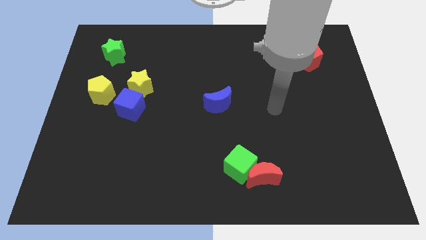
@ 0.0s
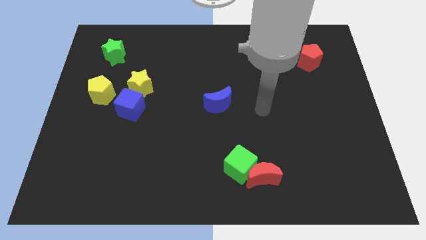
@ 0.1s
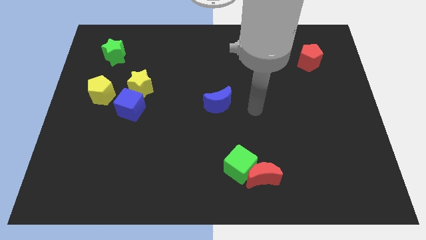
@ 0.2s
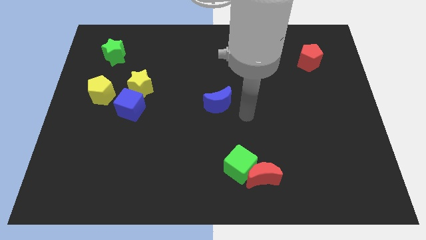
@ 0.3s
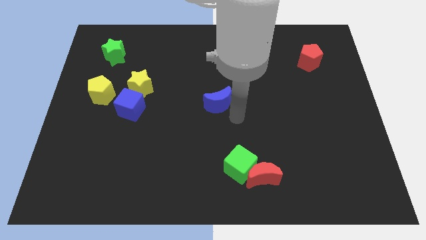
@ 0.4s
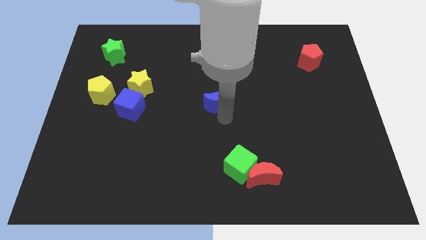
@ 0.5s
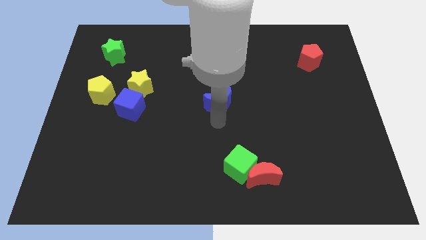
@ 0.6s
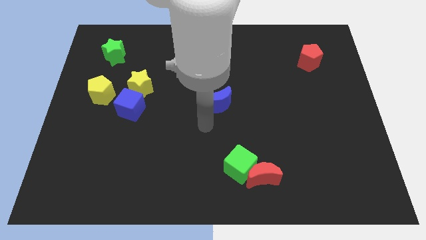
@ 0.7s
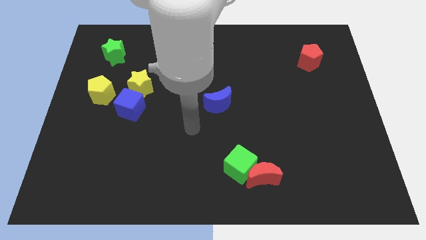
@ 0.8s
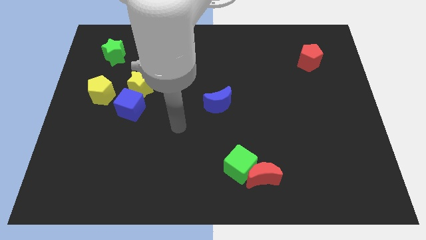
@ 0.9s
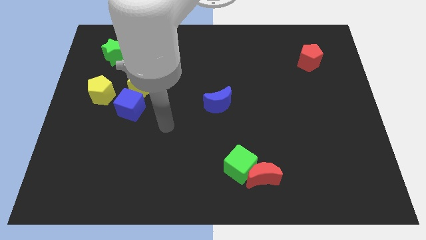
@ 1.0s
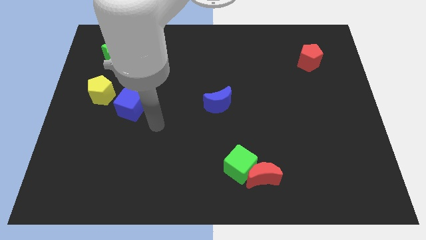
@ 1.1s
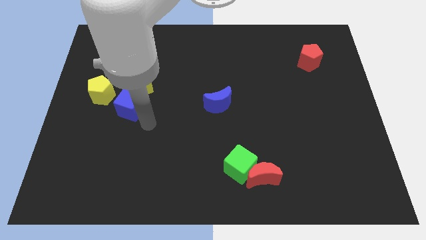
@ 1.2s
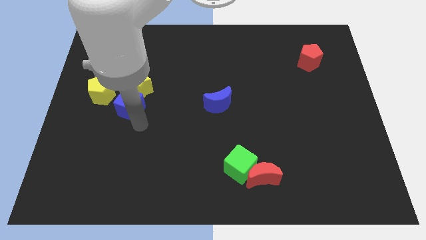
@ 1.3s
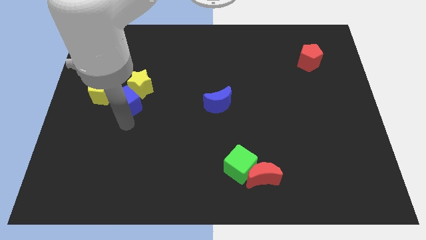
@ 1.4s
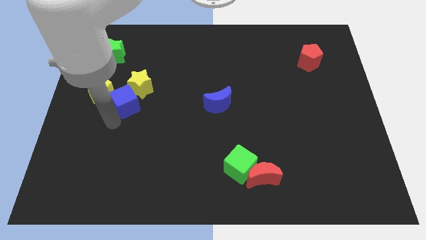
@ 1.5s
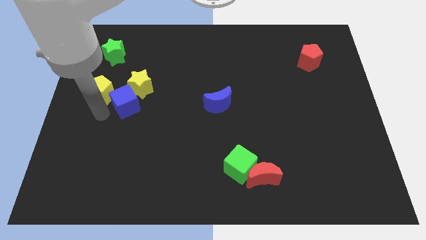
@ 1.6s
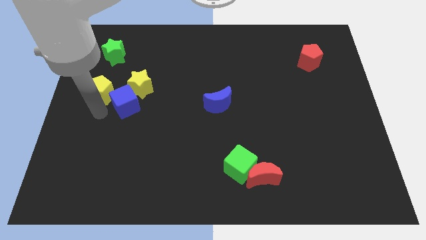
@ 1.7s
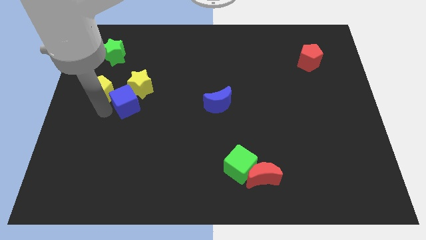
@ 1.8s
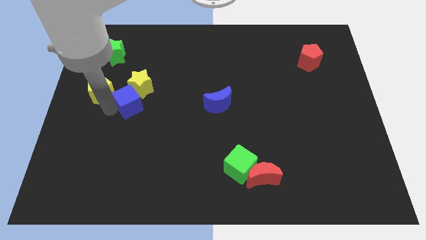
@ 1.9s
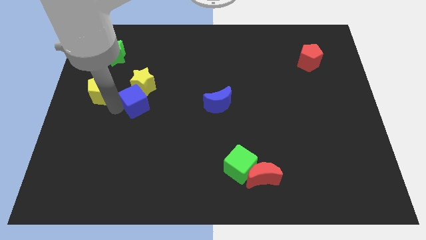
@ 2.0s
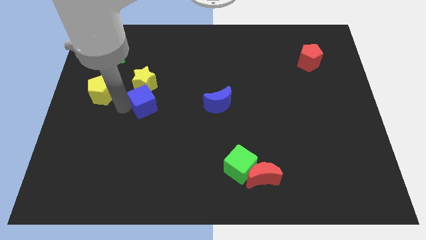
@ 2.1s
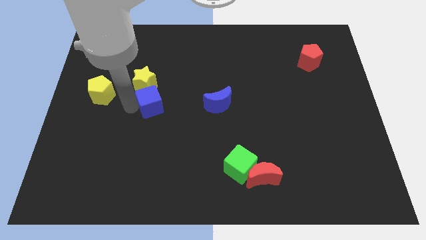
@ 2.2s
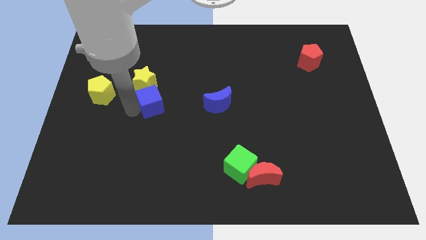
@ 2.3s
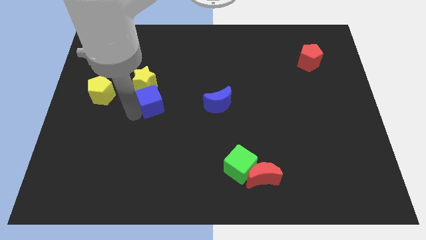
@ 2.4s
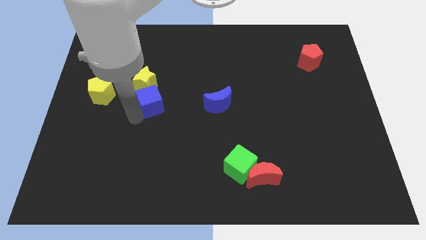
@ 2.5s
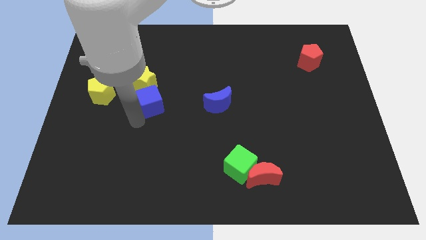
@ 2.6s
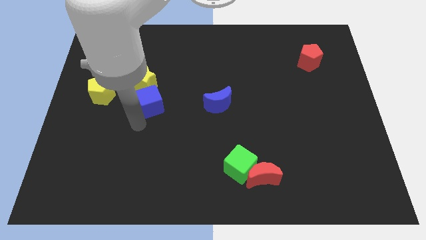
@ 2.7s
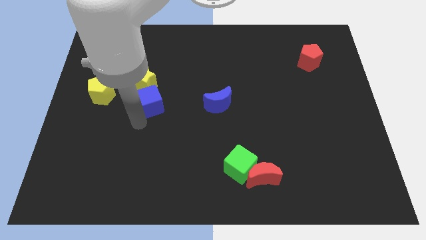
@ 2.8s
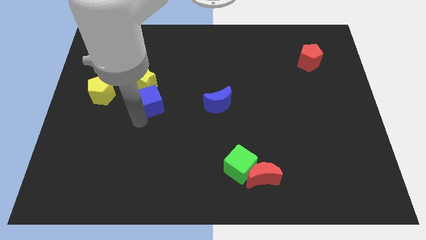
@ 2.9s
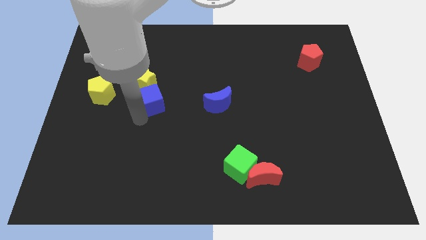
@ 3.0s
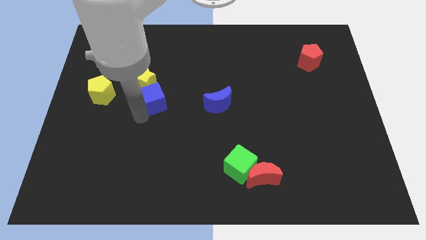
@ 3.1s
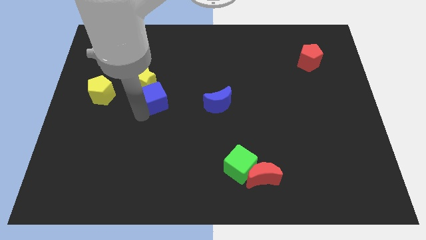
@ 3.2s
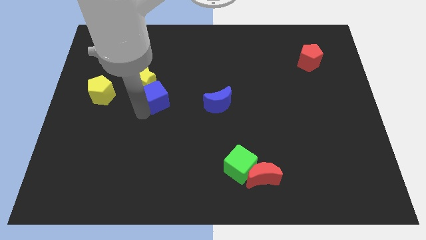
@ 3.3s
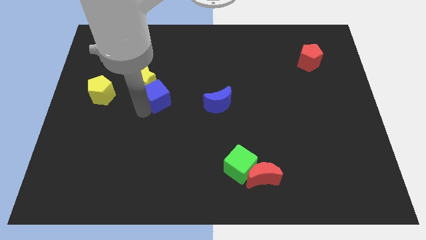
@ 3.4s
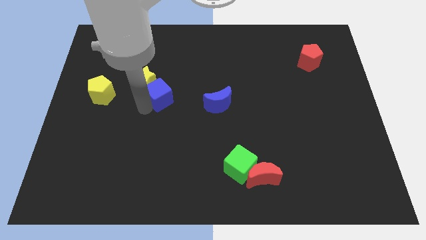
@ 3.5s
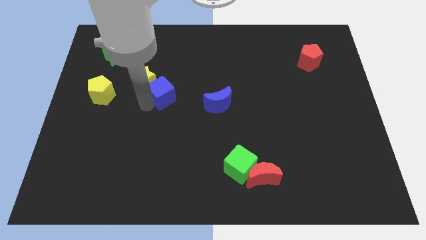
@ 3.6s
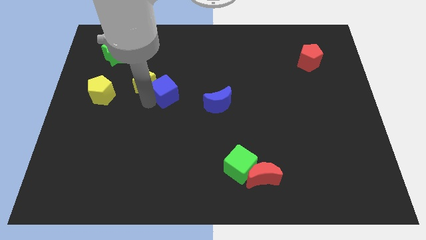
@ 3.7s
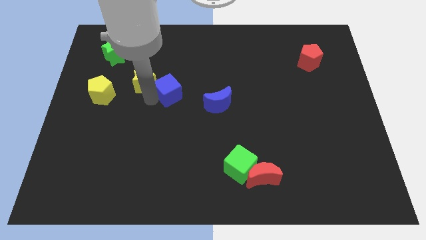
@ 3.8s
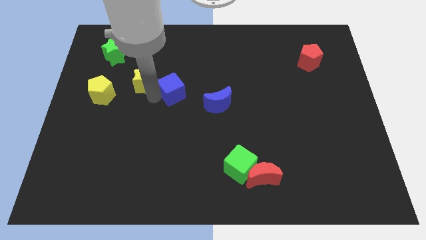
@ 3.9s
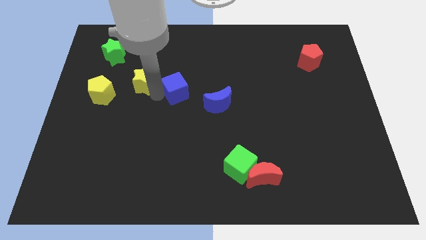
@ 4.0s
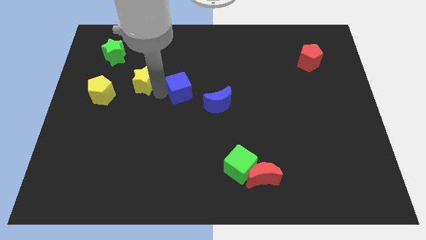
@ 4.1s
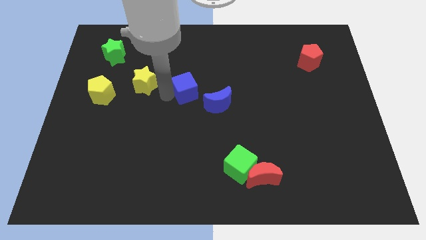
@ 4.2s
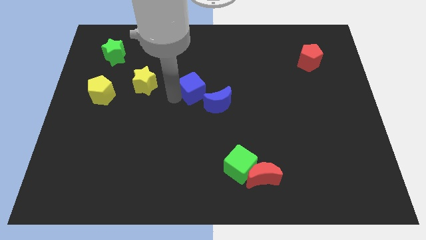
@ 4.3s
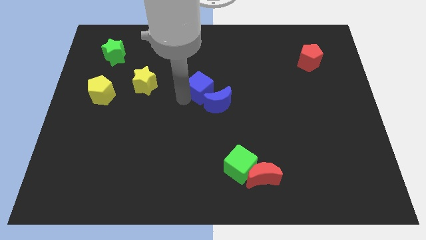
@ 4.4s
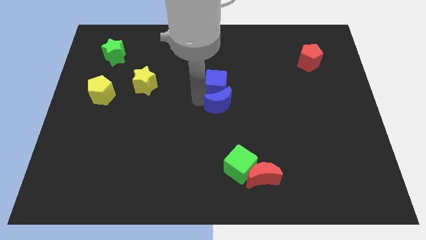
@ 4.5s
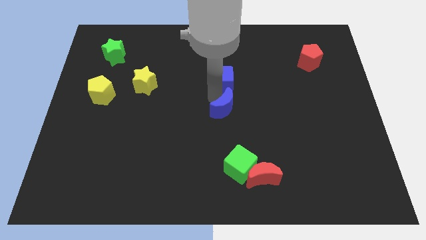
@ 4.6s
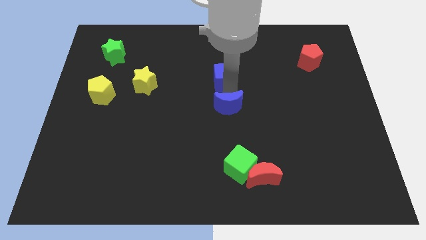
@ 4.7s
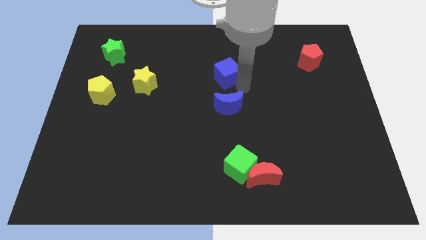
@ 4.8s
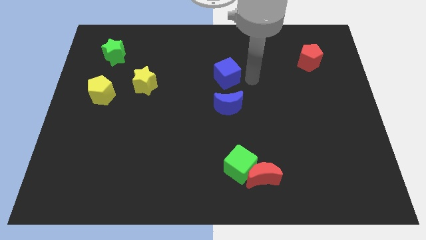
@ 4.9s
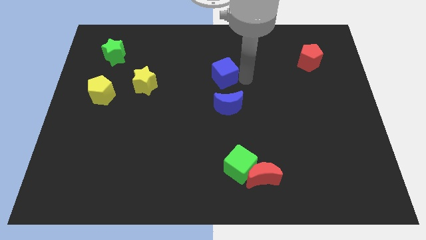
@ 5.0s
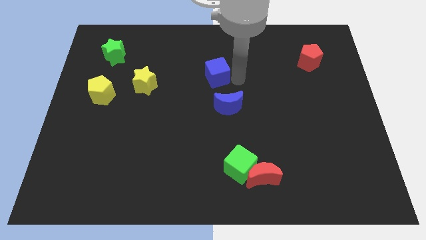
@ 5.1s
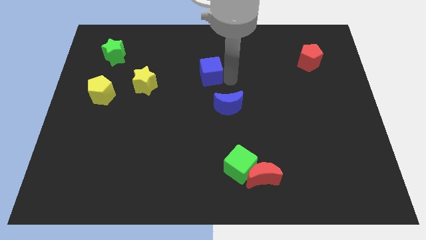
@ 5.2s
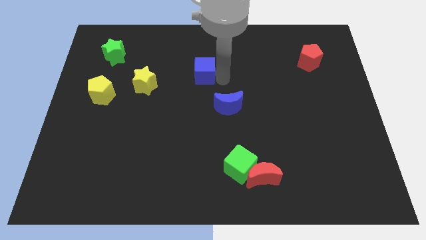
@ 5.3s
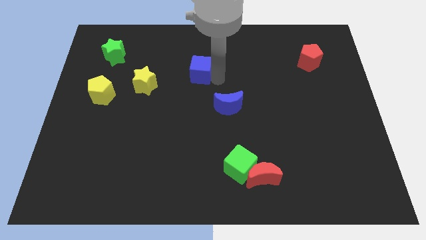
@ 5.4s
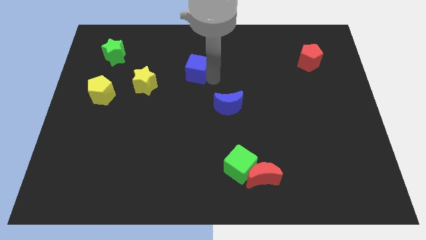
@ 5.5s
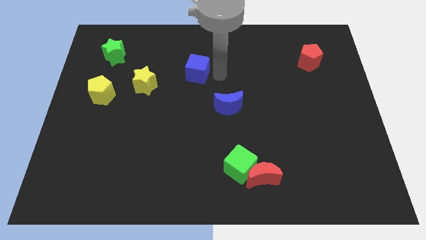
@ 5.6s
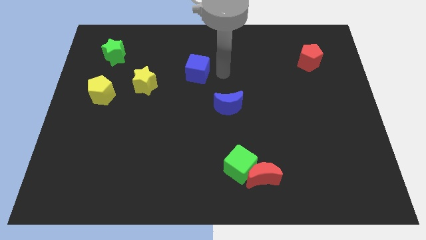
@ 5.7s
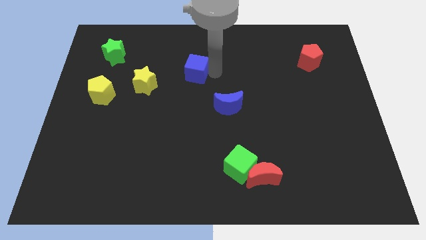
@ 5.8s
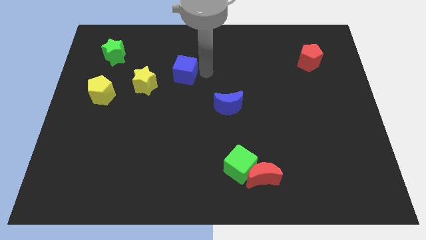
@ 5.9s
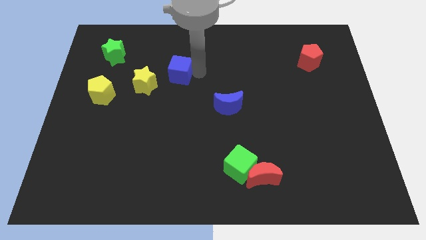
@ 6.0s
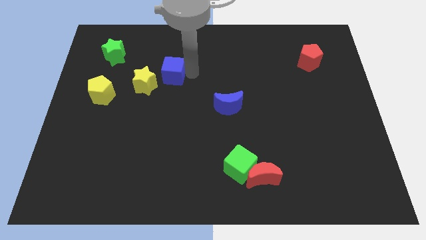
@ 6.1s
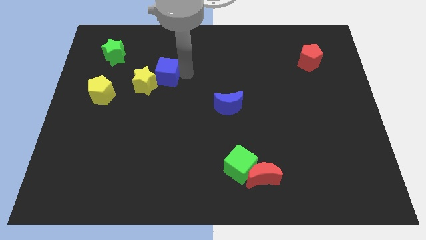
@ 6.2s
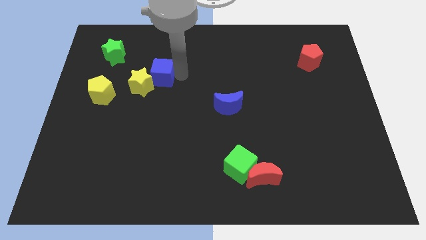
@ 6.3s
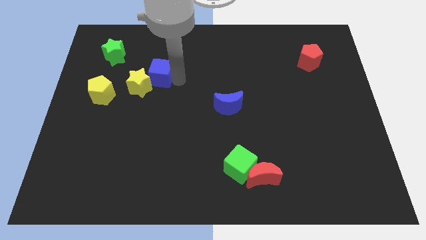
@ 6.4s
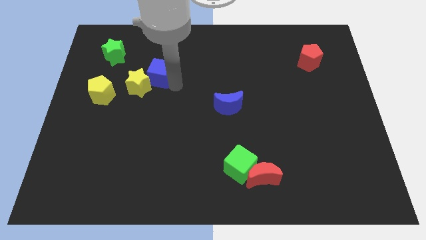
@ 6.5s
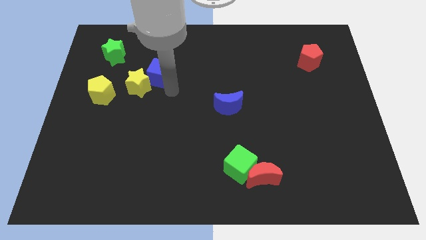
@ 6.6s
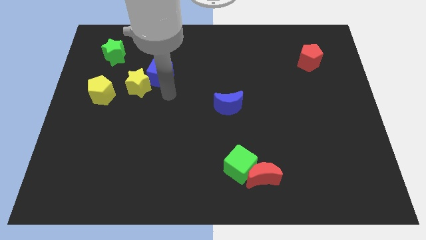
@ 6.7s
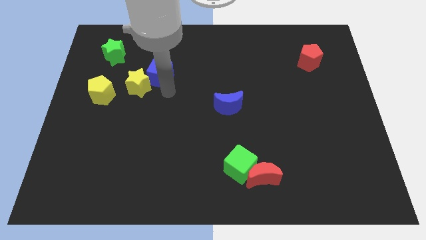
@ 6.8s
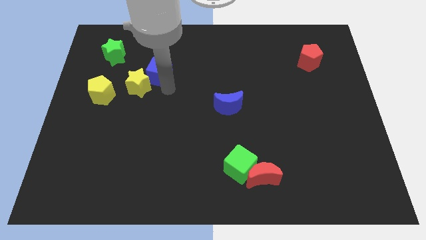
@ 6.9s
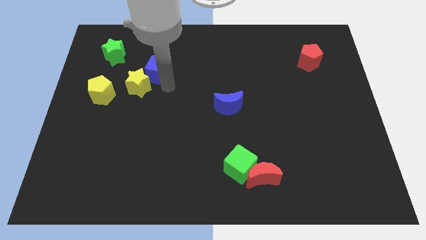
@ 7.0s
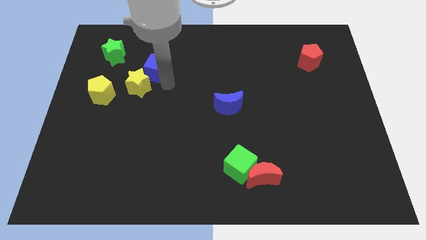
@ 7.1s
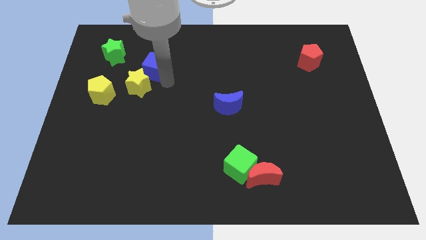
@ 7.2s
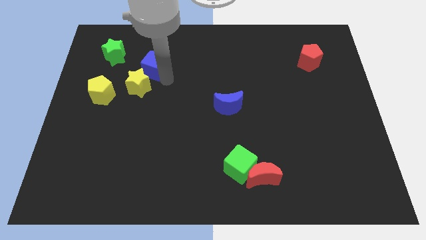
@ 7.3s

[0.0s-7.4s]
push the blue cube just right of the green star
